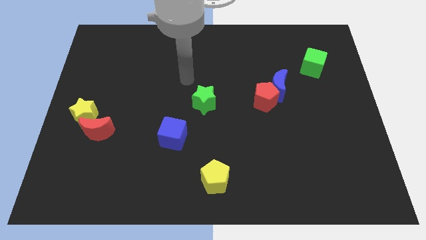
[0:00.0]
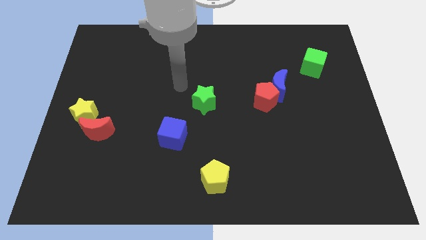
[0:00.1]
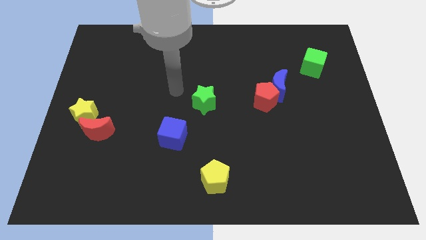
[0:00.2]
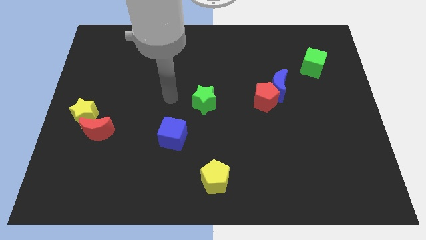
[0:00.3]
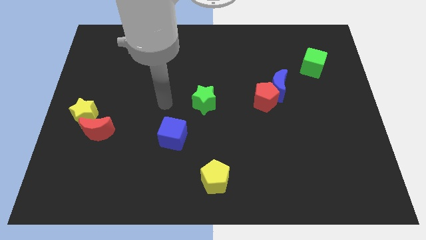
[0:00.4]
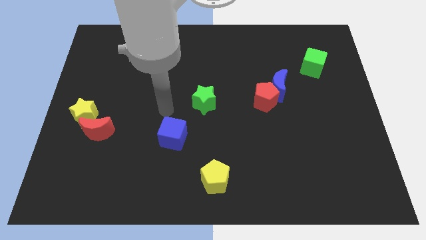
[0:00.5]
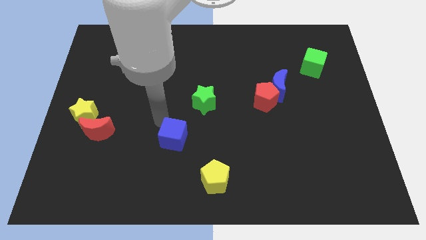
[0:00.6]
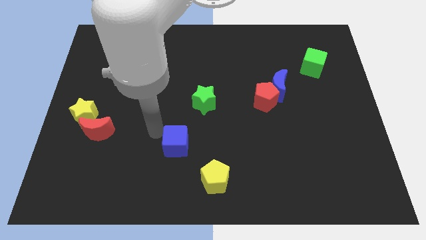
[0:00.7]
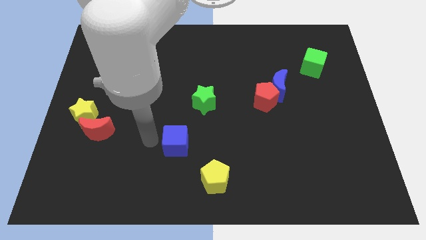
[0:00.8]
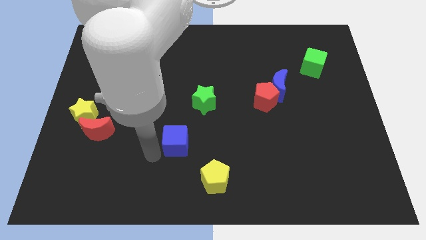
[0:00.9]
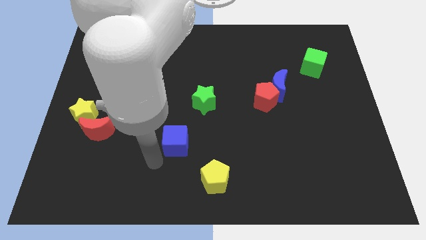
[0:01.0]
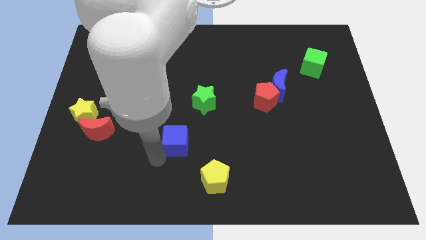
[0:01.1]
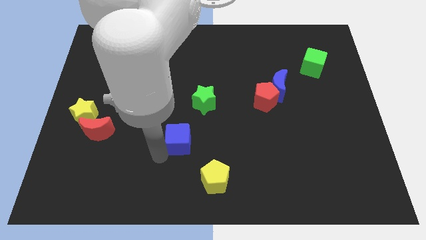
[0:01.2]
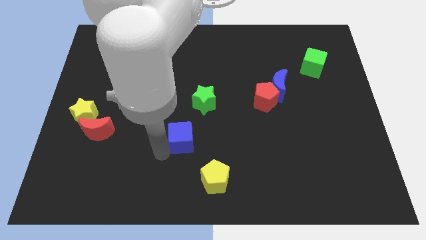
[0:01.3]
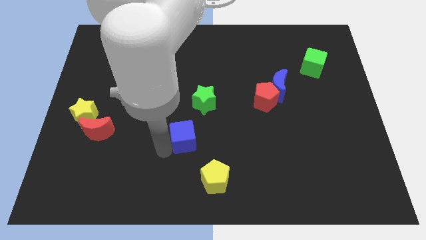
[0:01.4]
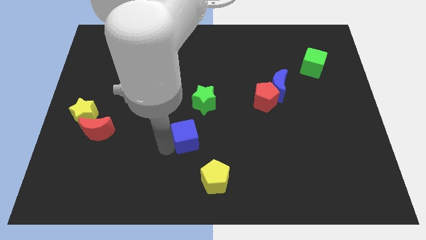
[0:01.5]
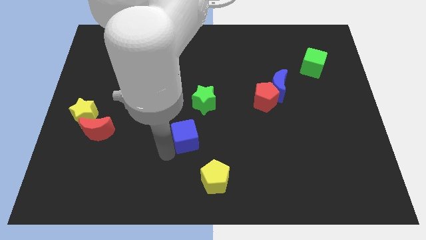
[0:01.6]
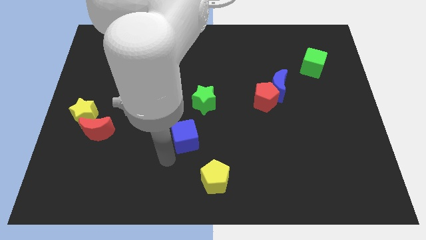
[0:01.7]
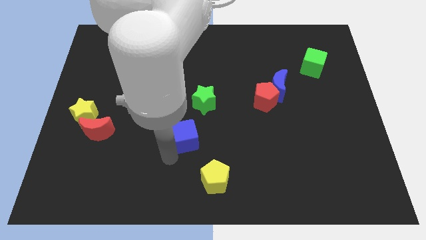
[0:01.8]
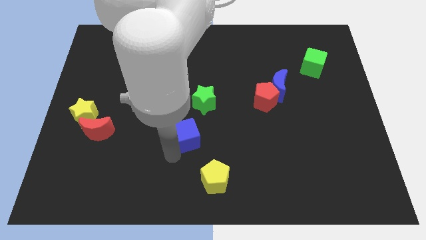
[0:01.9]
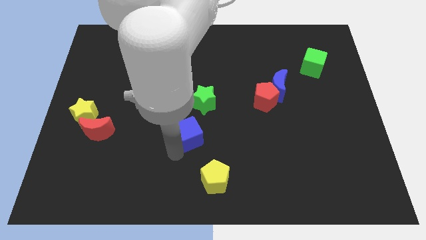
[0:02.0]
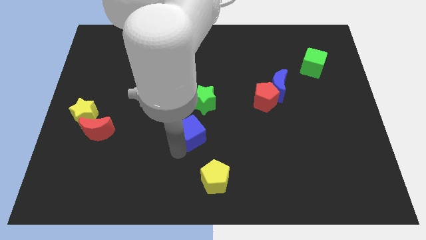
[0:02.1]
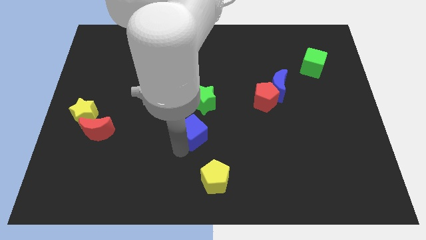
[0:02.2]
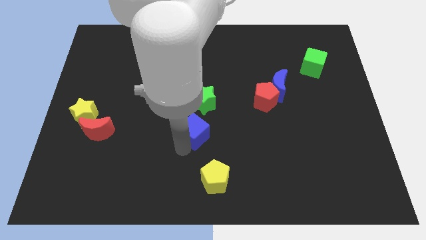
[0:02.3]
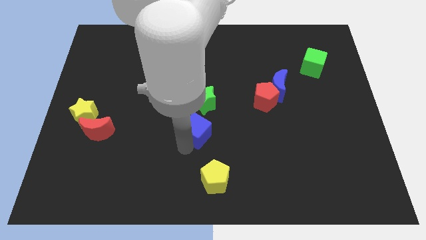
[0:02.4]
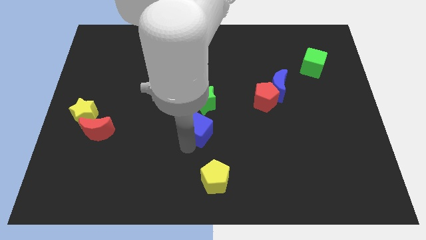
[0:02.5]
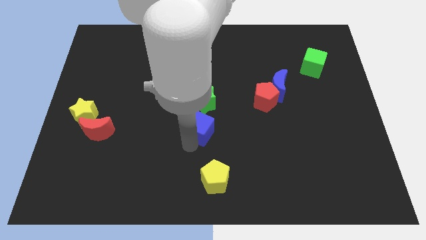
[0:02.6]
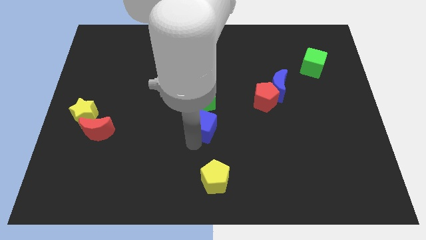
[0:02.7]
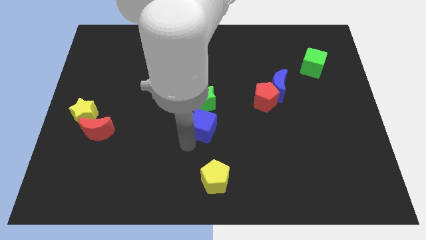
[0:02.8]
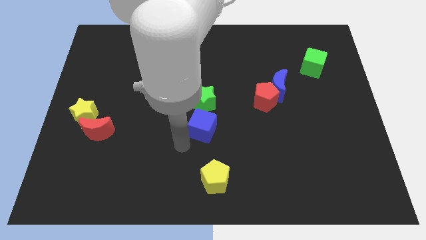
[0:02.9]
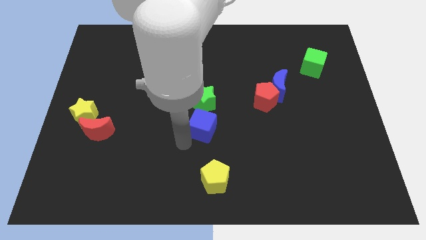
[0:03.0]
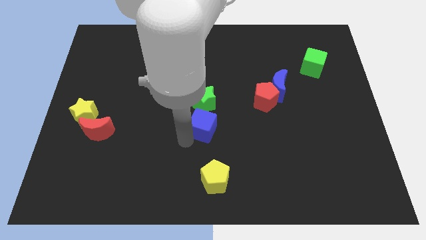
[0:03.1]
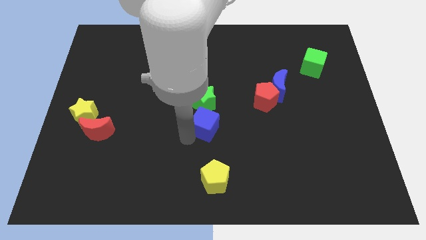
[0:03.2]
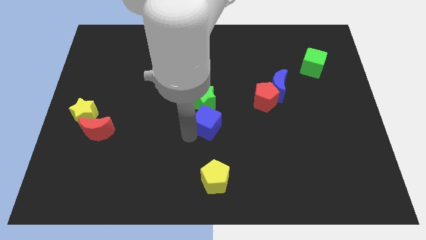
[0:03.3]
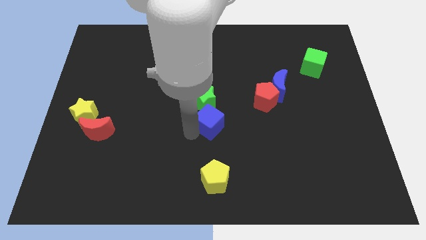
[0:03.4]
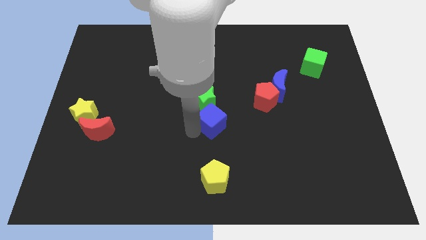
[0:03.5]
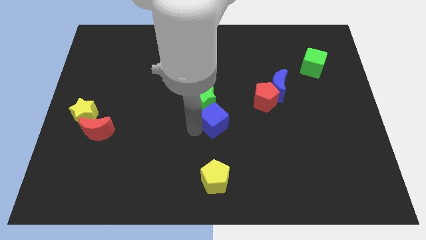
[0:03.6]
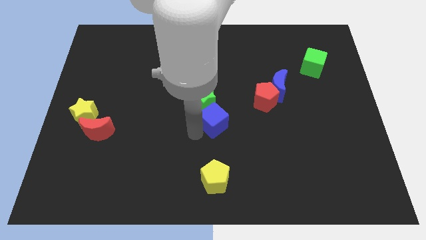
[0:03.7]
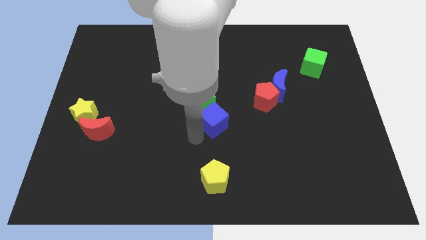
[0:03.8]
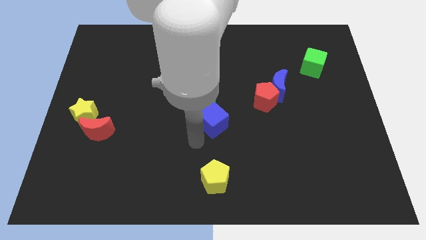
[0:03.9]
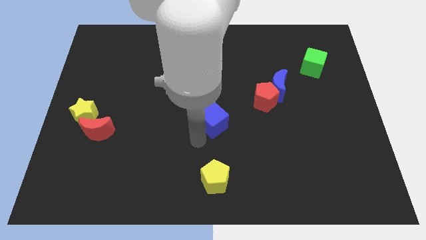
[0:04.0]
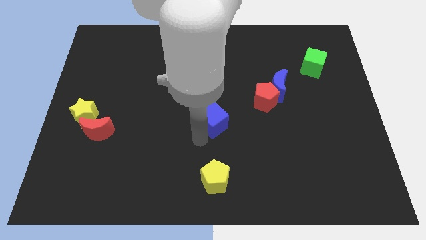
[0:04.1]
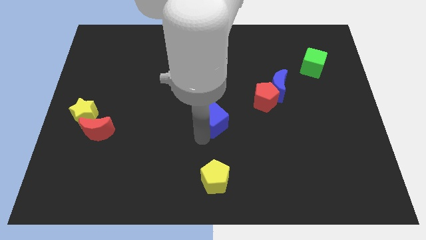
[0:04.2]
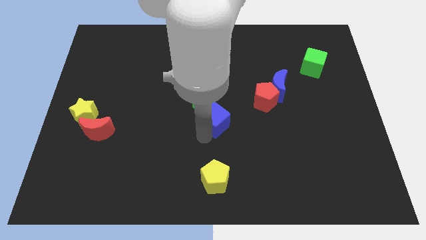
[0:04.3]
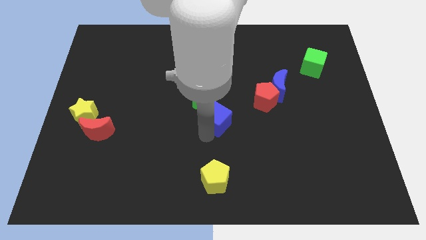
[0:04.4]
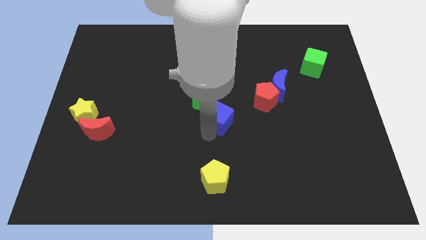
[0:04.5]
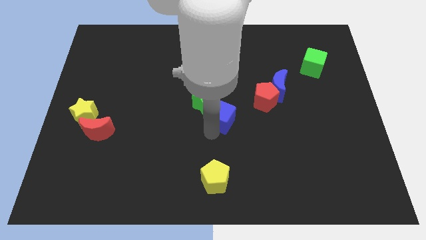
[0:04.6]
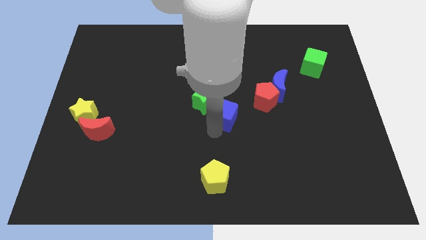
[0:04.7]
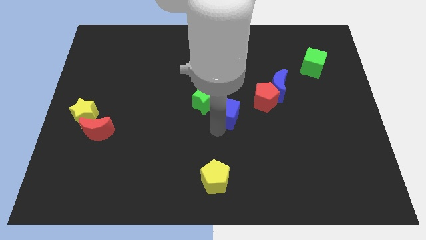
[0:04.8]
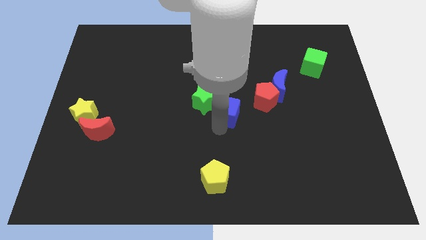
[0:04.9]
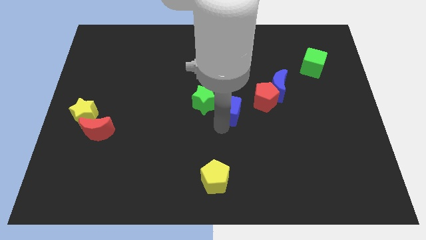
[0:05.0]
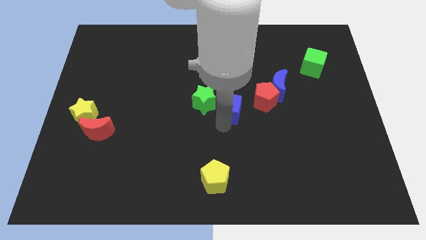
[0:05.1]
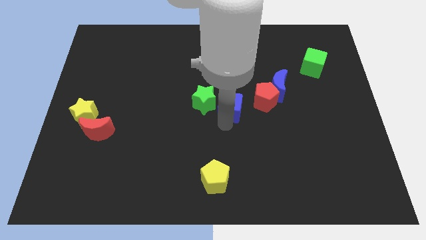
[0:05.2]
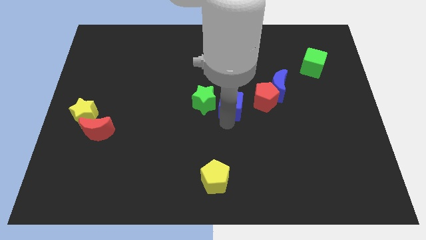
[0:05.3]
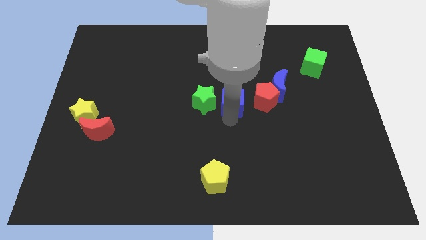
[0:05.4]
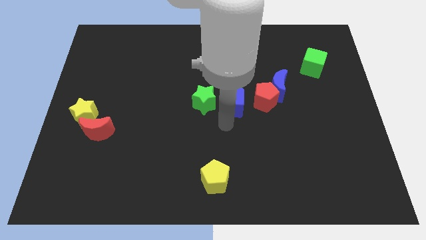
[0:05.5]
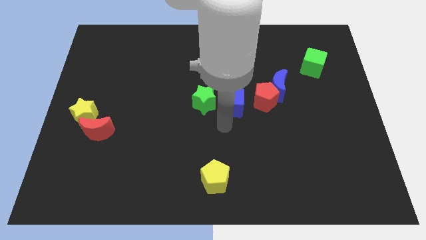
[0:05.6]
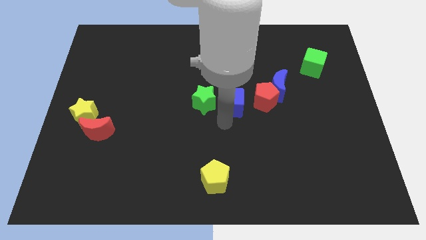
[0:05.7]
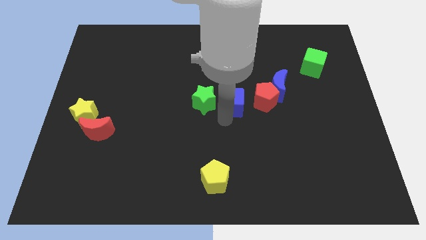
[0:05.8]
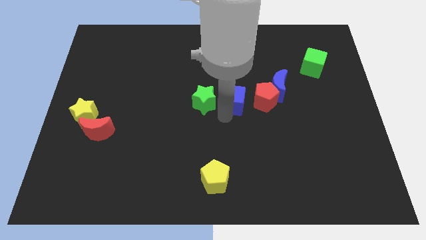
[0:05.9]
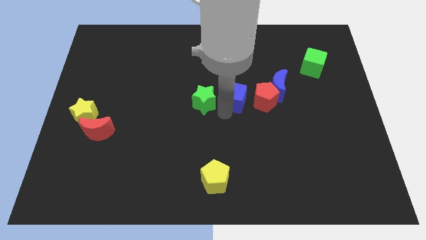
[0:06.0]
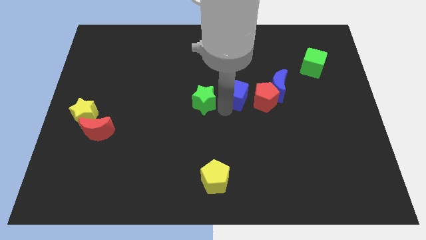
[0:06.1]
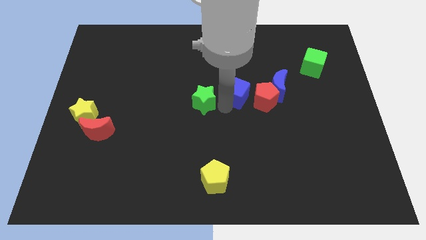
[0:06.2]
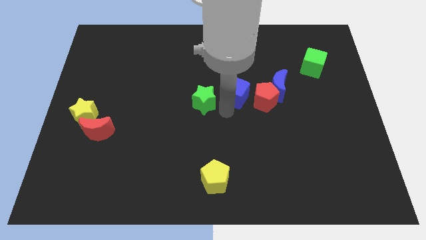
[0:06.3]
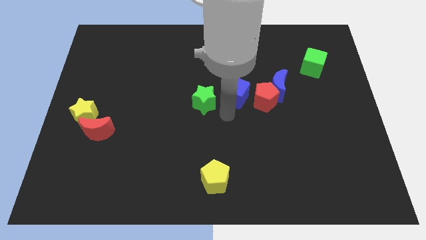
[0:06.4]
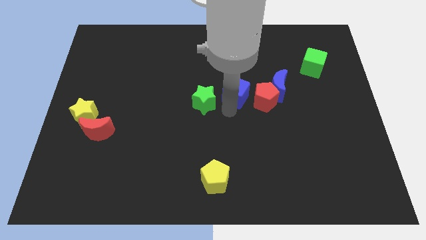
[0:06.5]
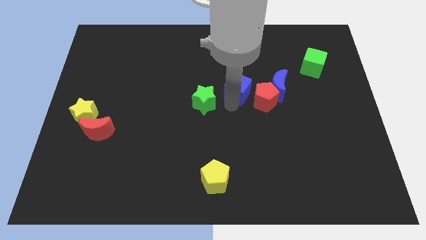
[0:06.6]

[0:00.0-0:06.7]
push the blue cube up and right diagonally

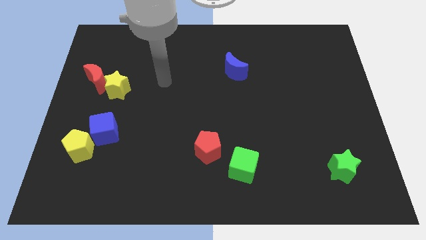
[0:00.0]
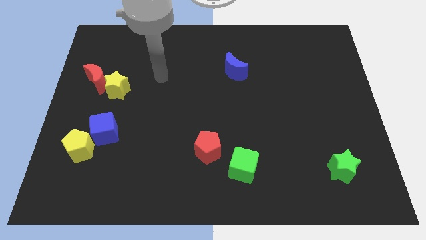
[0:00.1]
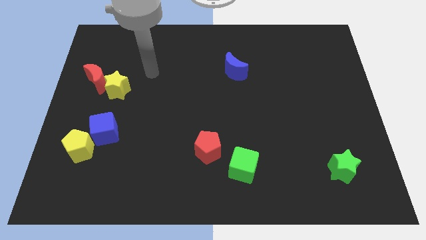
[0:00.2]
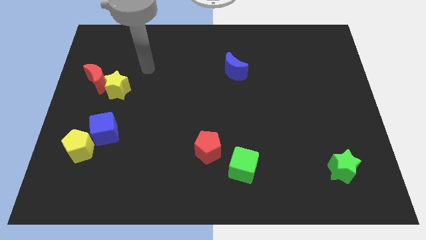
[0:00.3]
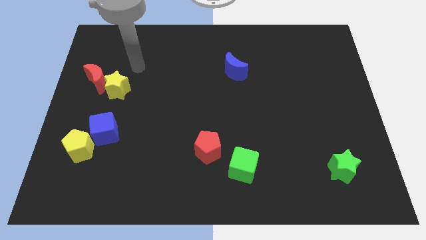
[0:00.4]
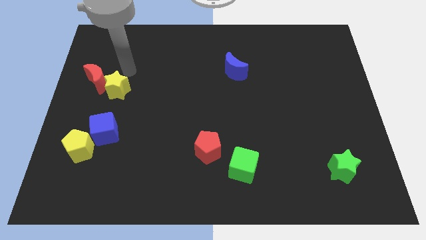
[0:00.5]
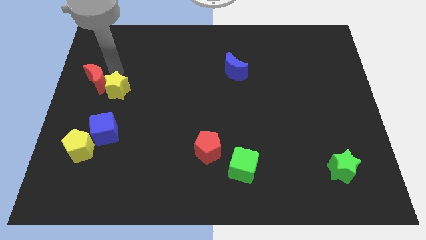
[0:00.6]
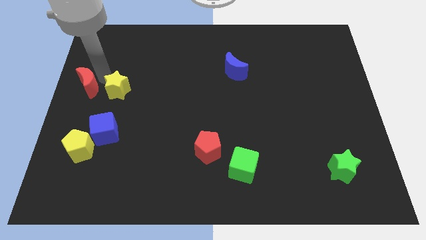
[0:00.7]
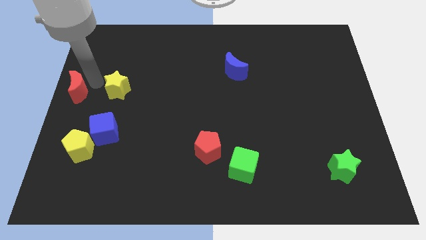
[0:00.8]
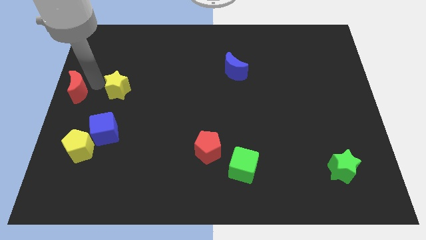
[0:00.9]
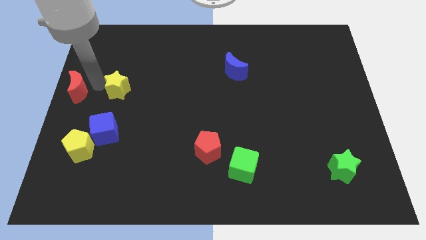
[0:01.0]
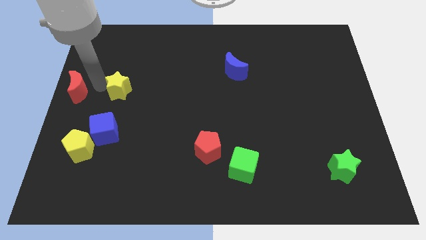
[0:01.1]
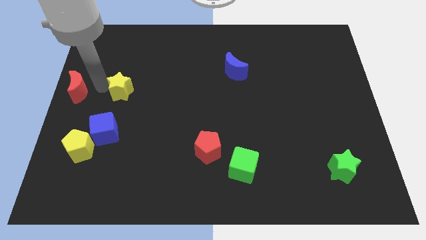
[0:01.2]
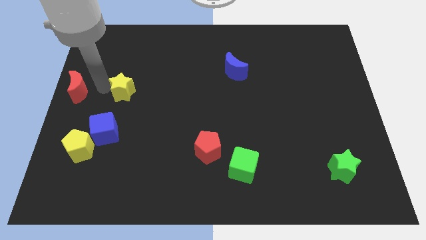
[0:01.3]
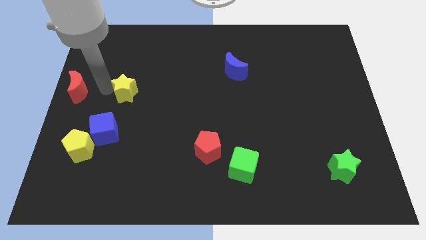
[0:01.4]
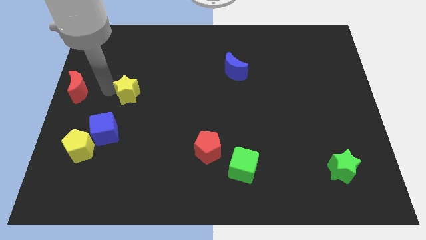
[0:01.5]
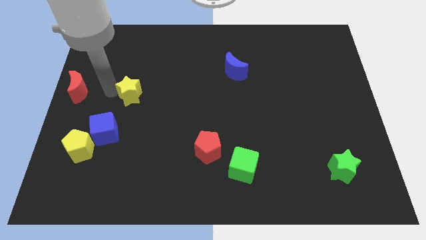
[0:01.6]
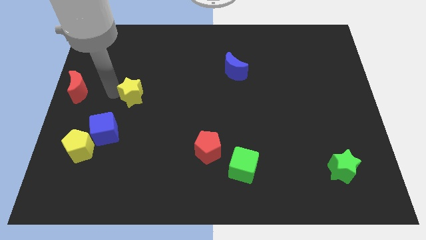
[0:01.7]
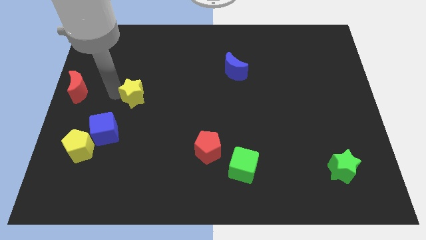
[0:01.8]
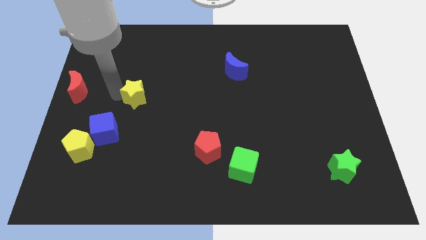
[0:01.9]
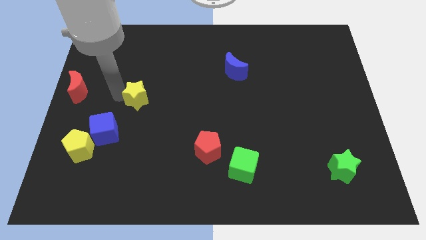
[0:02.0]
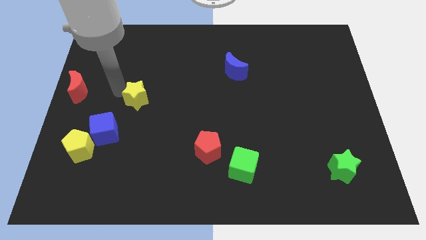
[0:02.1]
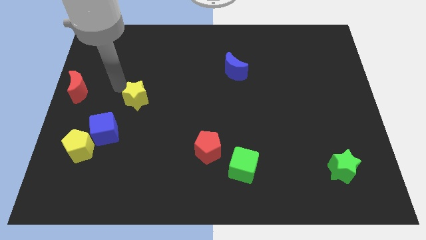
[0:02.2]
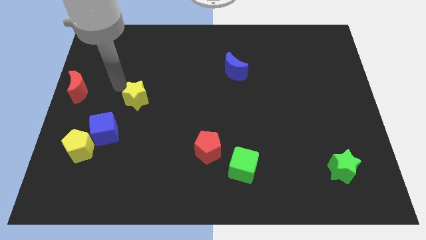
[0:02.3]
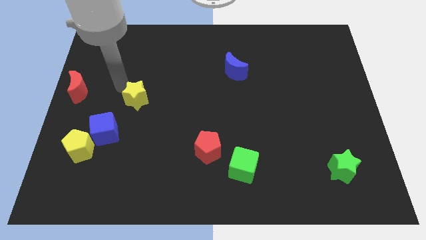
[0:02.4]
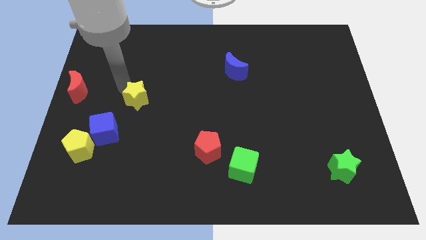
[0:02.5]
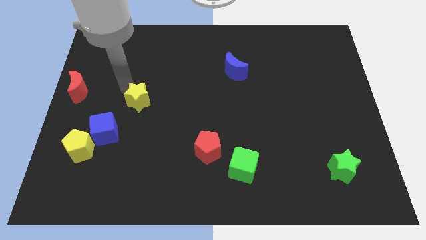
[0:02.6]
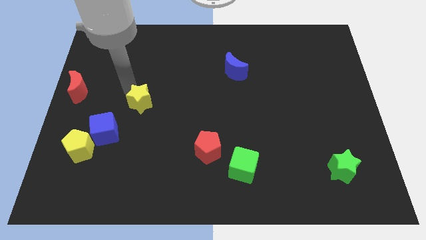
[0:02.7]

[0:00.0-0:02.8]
slide the yellow star a bit diagonally downwards and to the right
